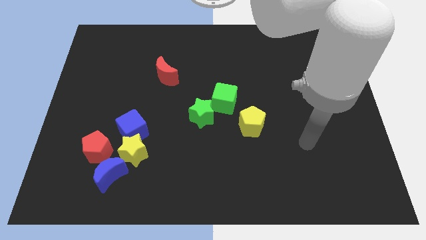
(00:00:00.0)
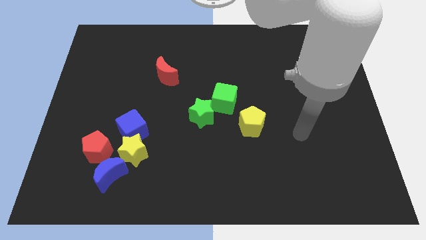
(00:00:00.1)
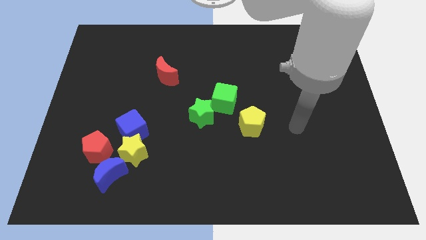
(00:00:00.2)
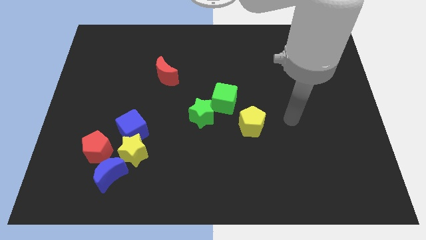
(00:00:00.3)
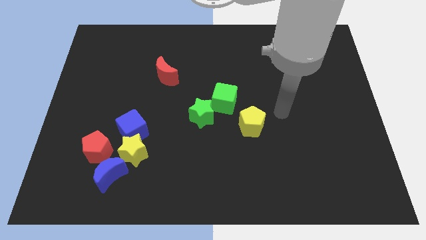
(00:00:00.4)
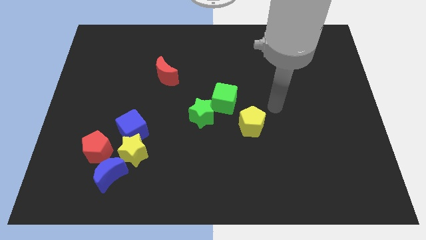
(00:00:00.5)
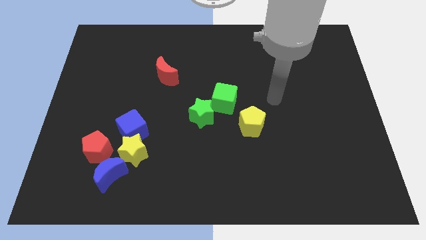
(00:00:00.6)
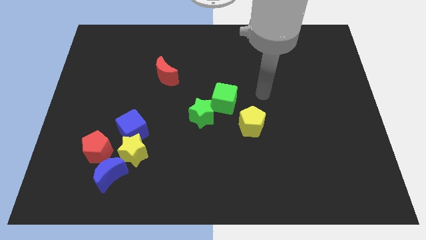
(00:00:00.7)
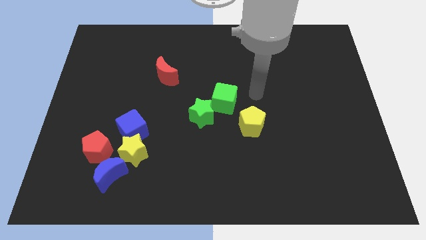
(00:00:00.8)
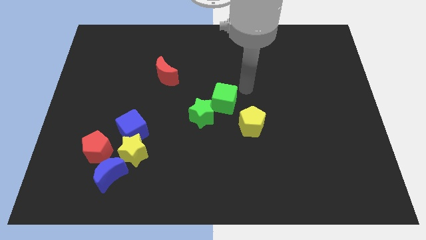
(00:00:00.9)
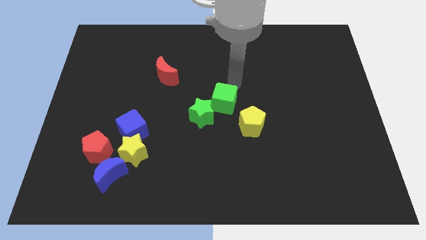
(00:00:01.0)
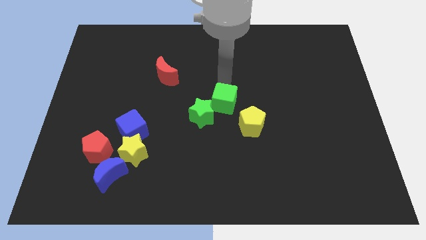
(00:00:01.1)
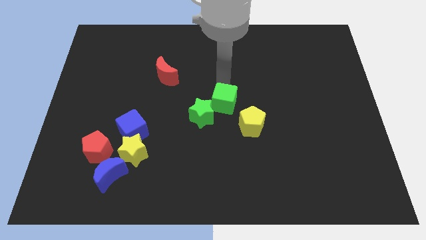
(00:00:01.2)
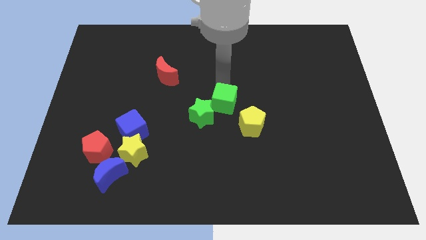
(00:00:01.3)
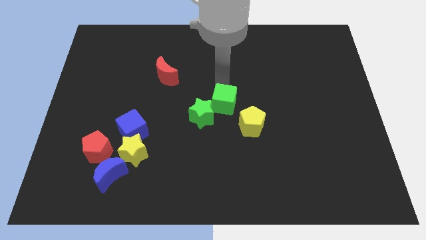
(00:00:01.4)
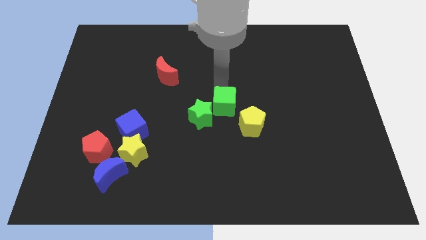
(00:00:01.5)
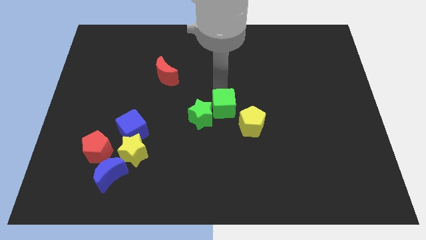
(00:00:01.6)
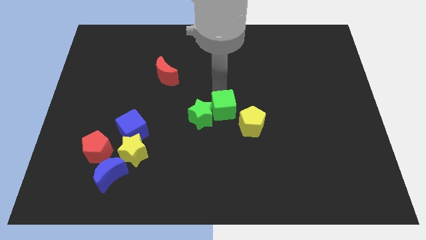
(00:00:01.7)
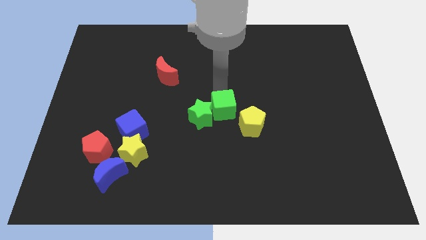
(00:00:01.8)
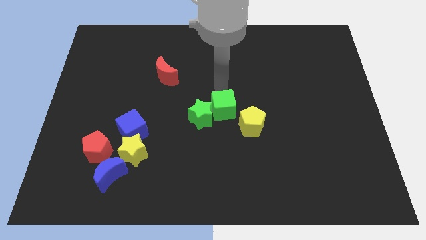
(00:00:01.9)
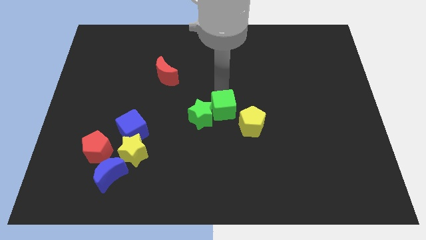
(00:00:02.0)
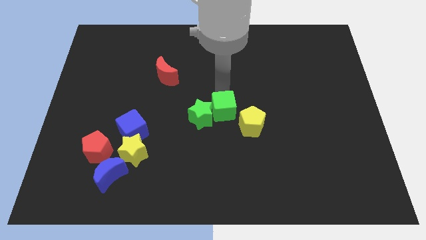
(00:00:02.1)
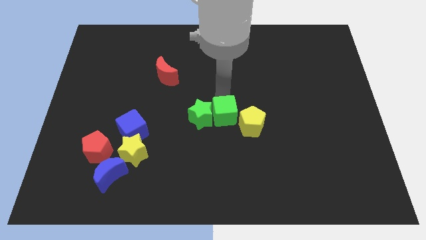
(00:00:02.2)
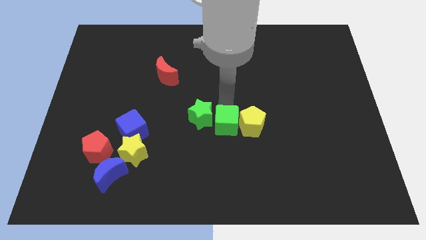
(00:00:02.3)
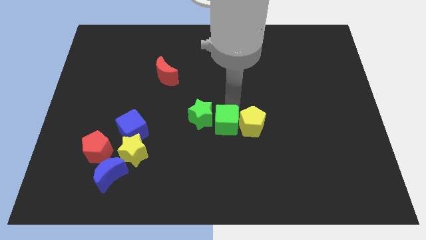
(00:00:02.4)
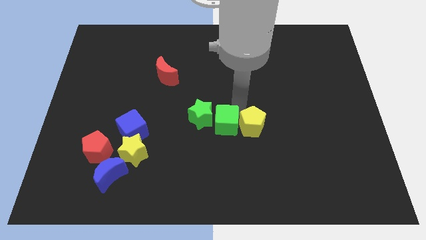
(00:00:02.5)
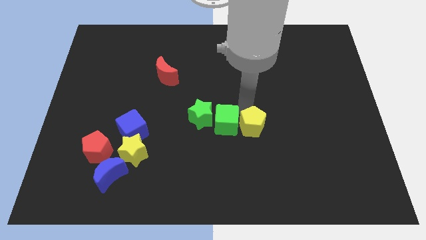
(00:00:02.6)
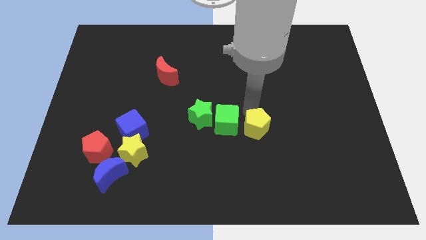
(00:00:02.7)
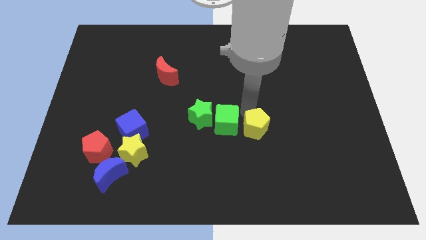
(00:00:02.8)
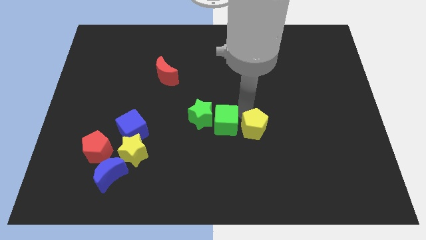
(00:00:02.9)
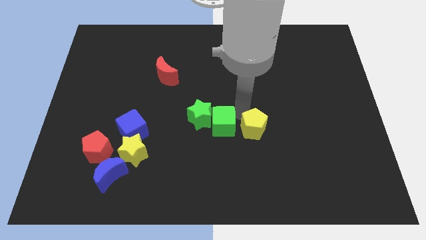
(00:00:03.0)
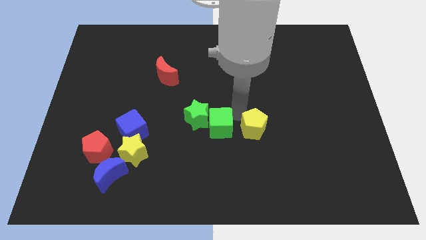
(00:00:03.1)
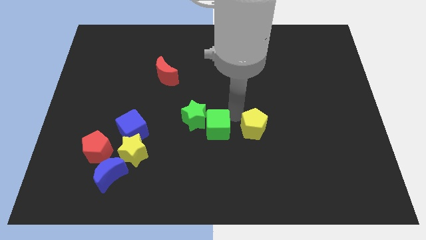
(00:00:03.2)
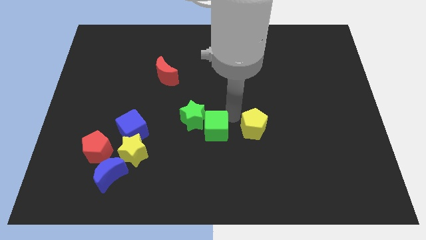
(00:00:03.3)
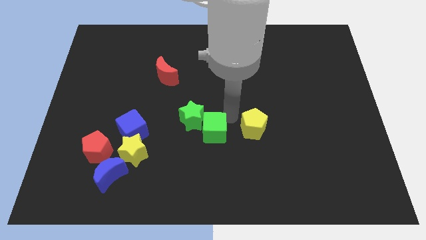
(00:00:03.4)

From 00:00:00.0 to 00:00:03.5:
slide the green cube a bit down and left

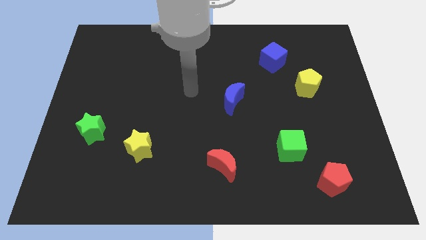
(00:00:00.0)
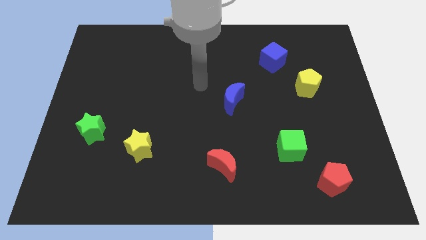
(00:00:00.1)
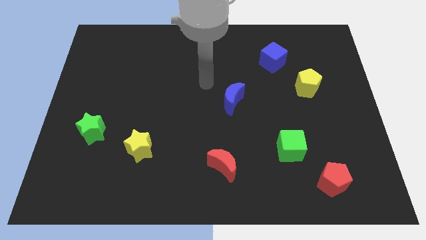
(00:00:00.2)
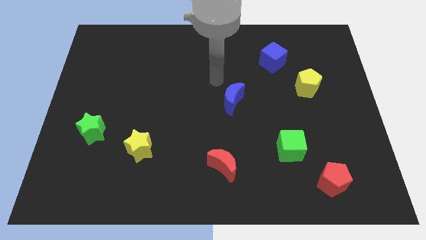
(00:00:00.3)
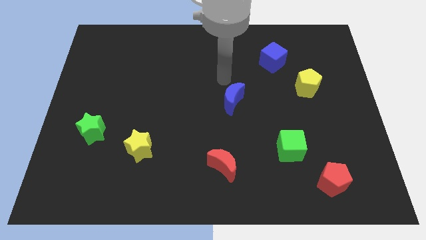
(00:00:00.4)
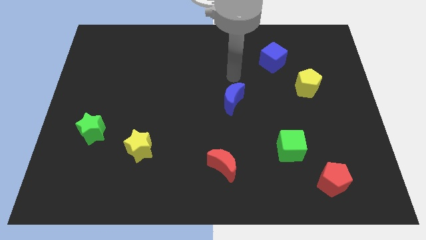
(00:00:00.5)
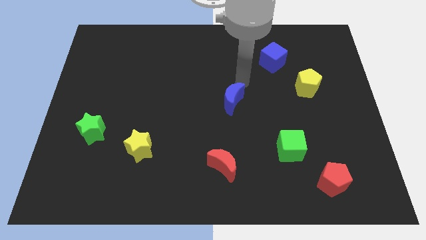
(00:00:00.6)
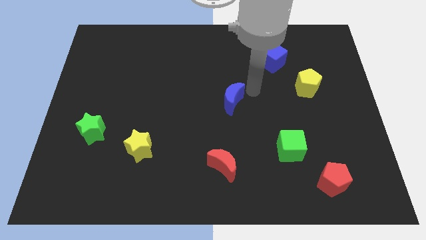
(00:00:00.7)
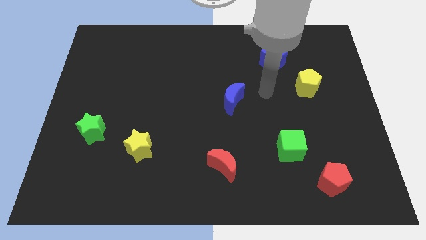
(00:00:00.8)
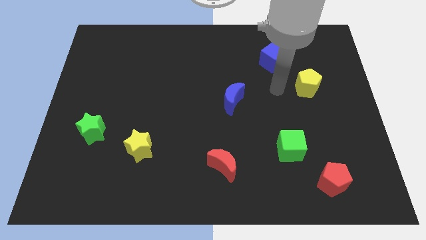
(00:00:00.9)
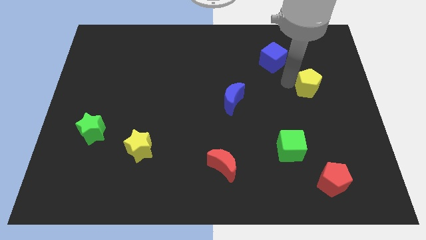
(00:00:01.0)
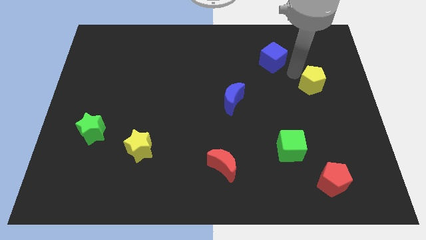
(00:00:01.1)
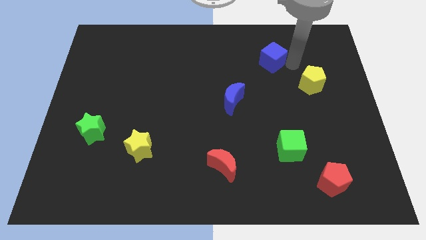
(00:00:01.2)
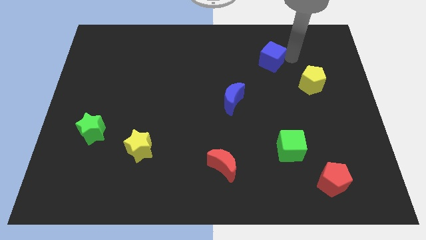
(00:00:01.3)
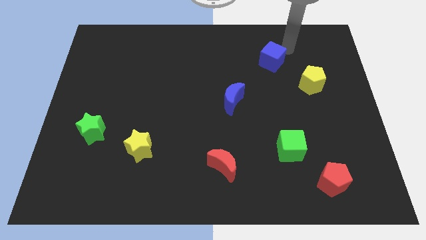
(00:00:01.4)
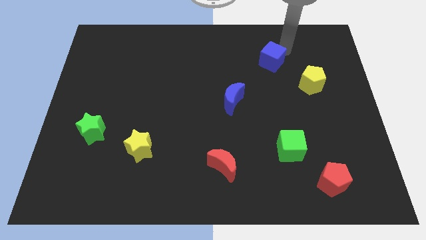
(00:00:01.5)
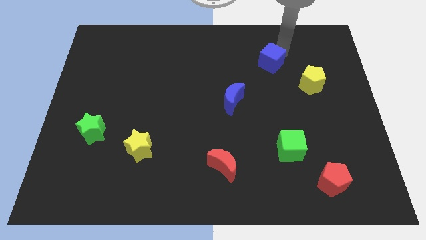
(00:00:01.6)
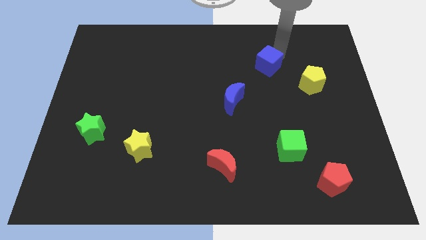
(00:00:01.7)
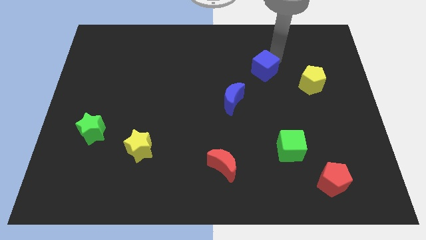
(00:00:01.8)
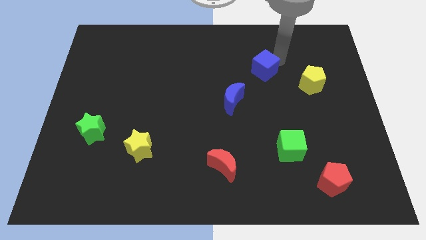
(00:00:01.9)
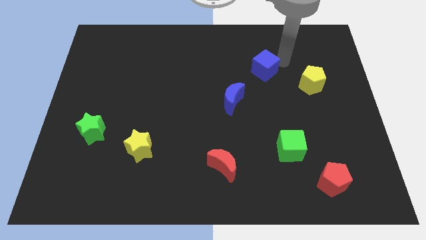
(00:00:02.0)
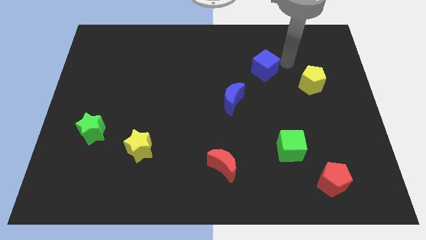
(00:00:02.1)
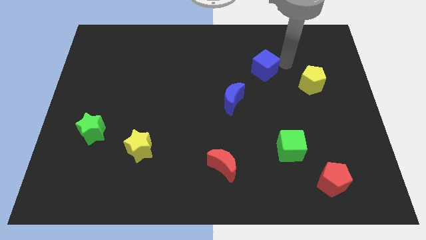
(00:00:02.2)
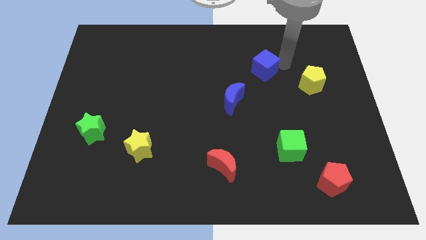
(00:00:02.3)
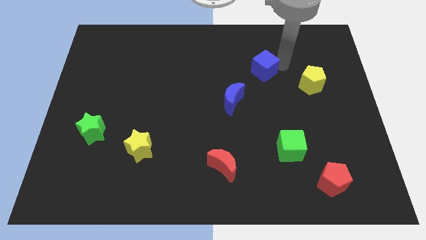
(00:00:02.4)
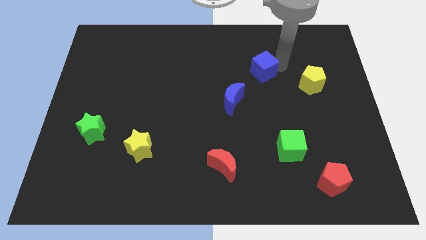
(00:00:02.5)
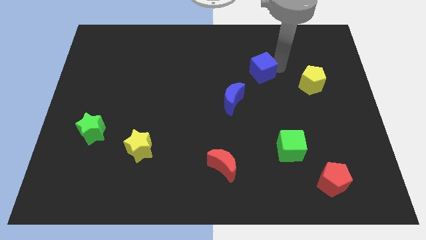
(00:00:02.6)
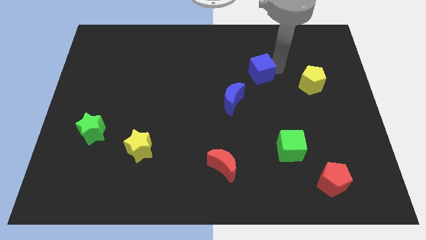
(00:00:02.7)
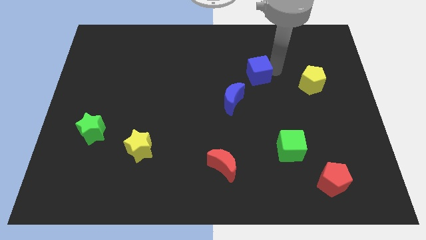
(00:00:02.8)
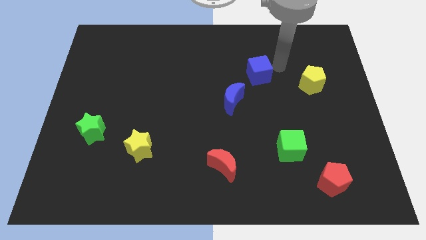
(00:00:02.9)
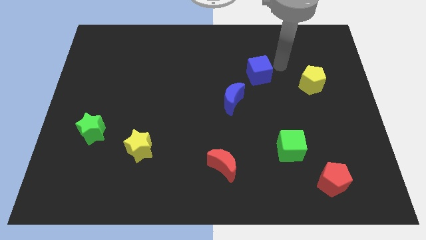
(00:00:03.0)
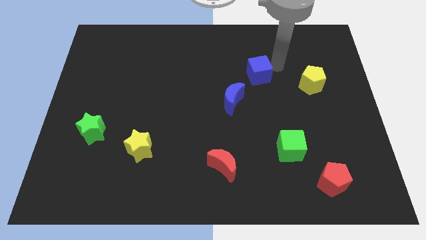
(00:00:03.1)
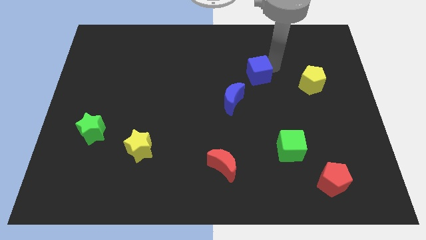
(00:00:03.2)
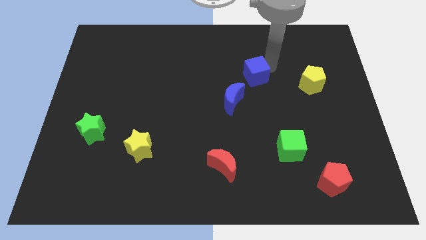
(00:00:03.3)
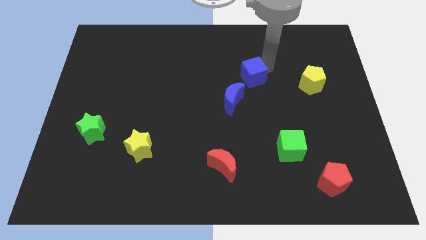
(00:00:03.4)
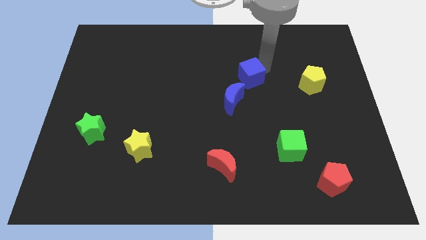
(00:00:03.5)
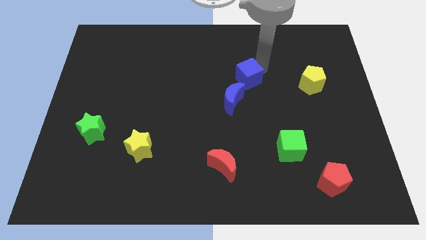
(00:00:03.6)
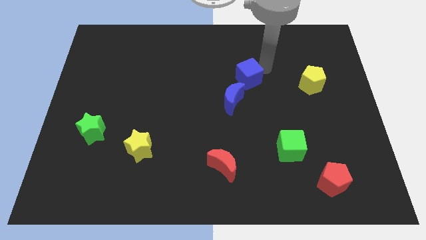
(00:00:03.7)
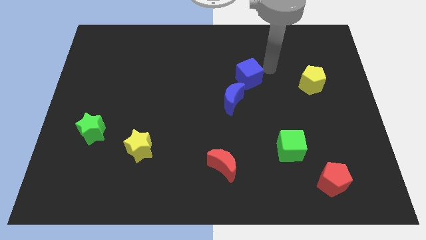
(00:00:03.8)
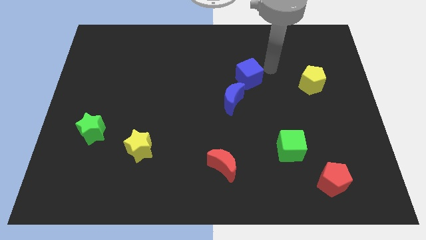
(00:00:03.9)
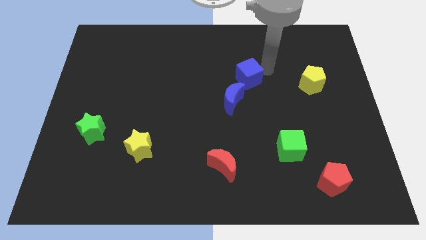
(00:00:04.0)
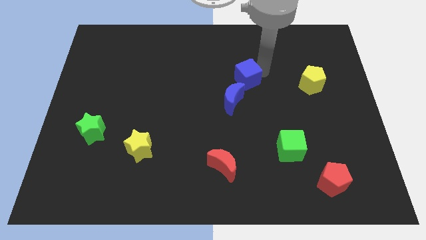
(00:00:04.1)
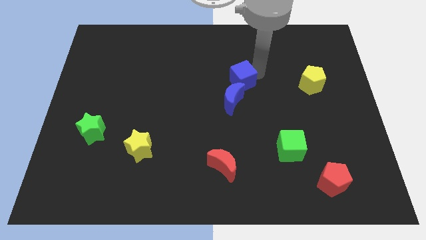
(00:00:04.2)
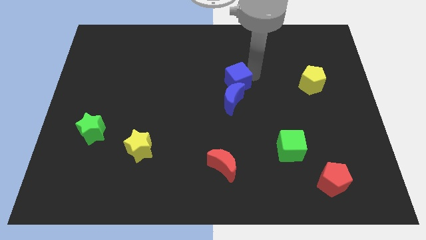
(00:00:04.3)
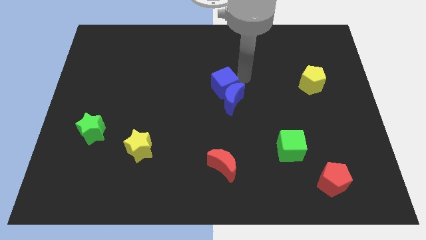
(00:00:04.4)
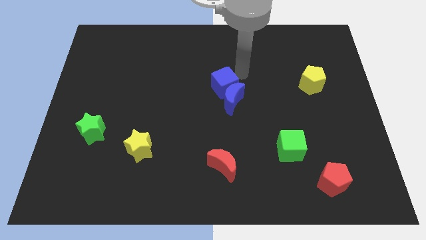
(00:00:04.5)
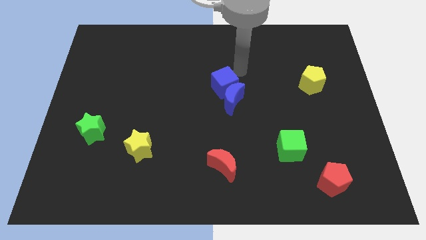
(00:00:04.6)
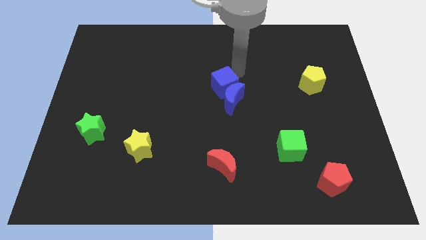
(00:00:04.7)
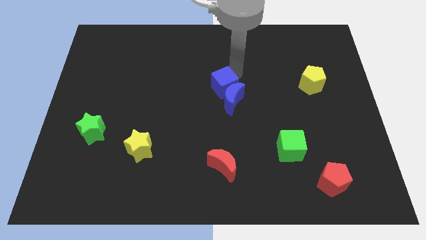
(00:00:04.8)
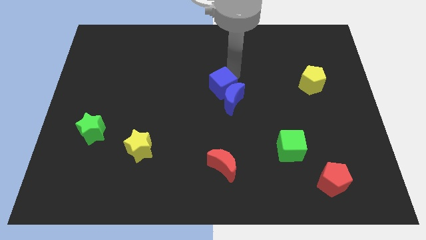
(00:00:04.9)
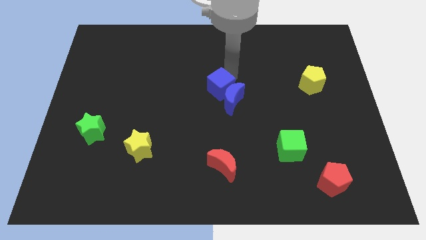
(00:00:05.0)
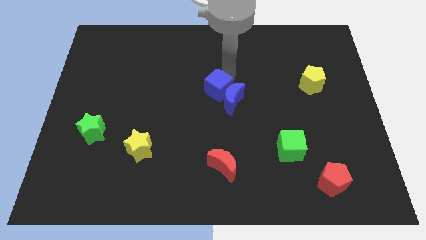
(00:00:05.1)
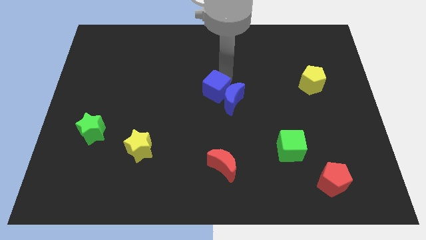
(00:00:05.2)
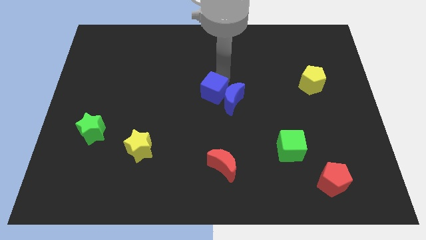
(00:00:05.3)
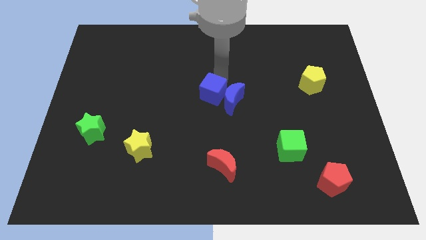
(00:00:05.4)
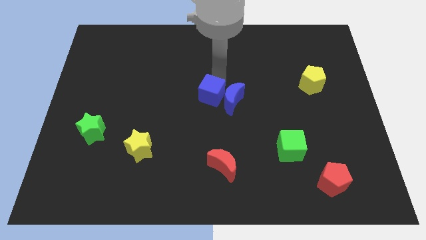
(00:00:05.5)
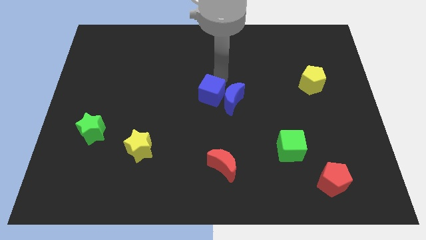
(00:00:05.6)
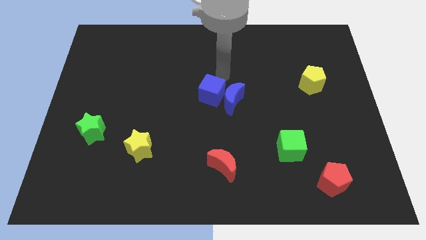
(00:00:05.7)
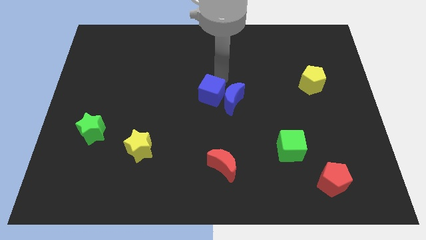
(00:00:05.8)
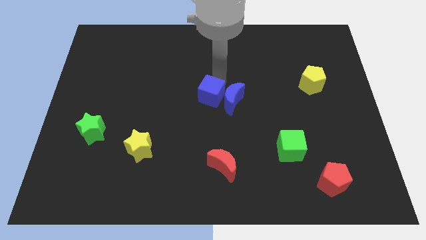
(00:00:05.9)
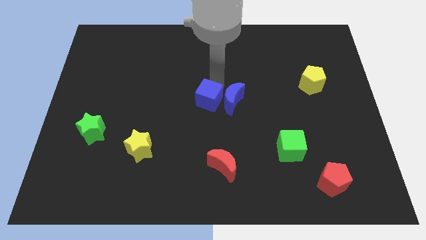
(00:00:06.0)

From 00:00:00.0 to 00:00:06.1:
slide the blue cube diagonally down and to the left
